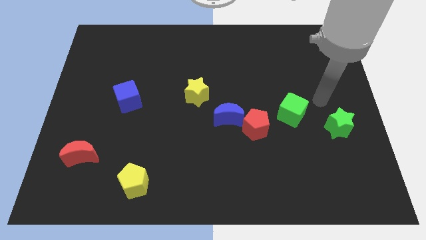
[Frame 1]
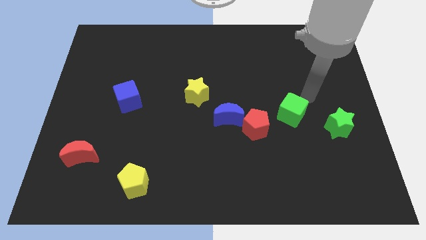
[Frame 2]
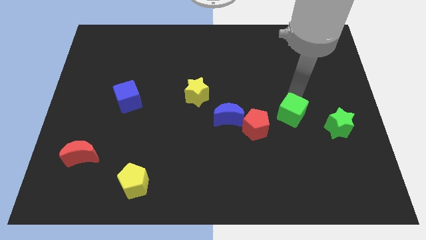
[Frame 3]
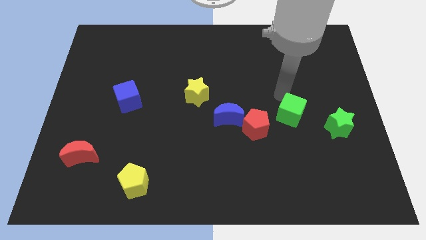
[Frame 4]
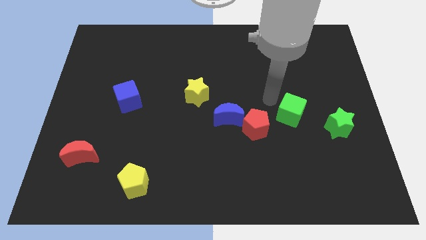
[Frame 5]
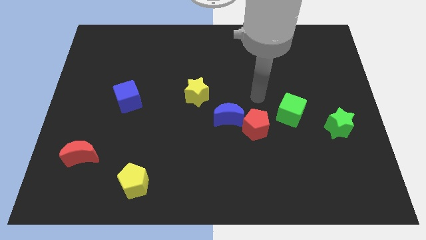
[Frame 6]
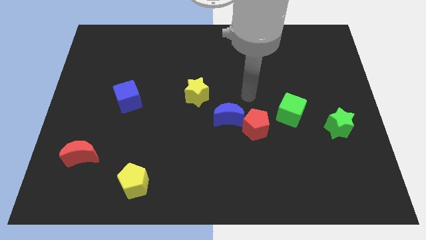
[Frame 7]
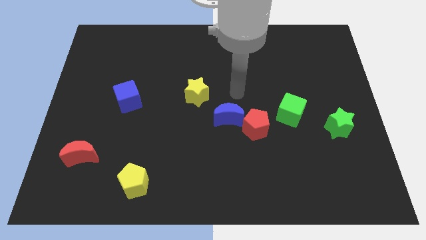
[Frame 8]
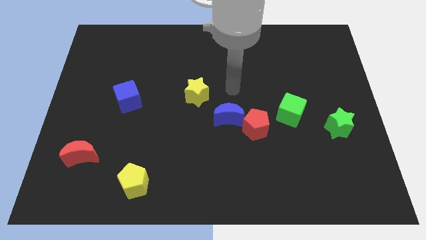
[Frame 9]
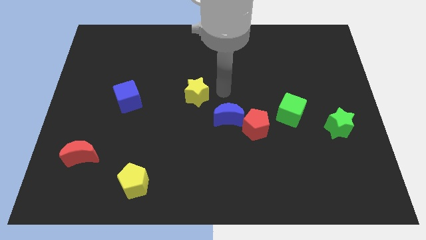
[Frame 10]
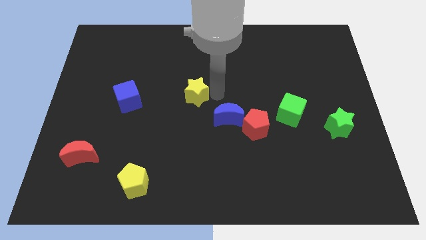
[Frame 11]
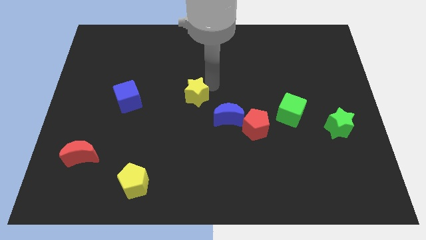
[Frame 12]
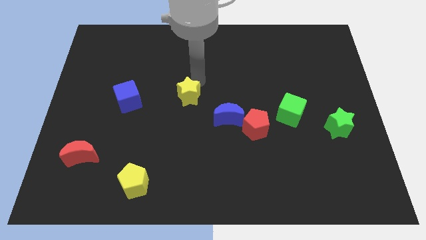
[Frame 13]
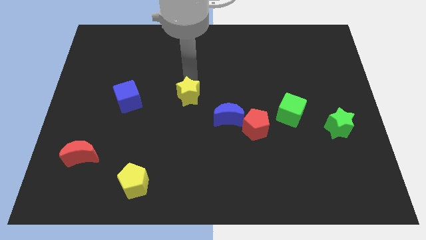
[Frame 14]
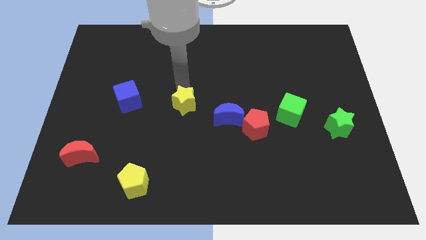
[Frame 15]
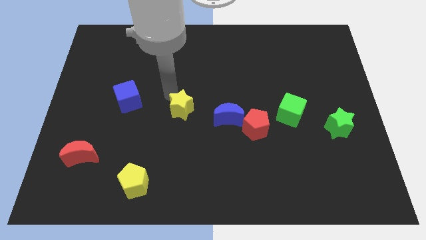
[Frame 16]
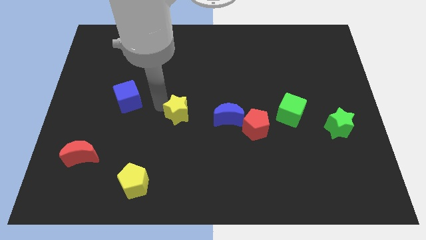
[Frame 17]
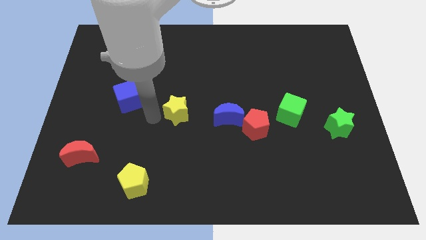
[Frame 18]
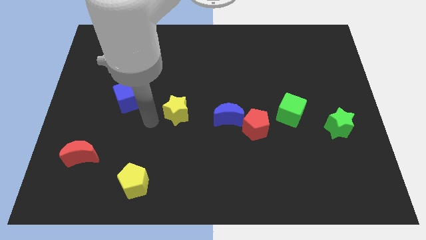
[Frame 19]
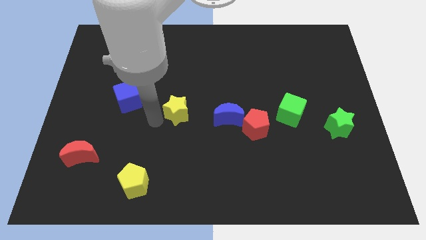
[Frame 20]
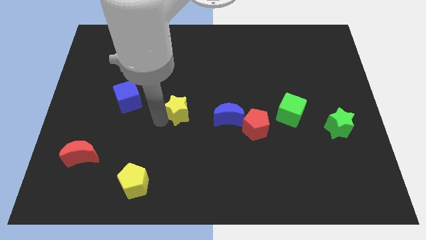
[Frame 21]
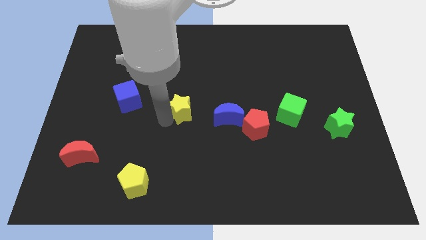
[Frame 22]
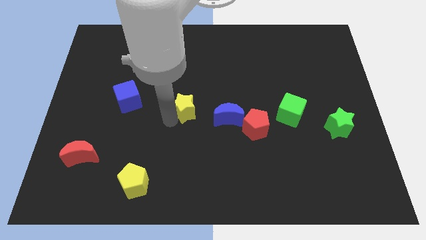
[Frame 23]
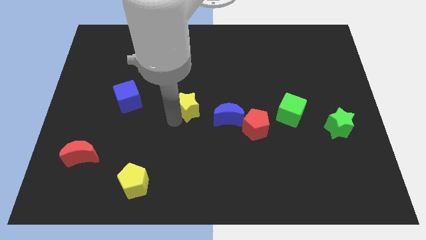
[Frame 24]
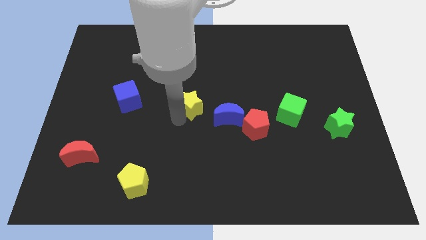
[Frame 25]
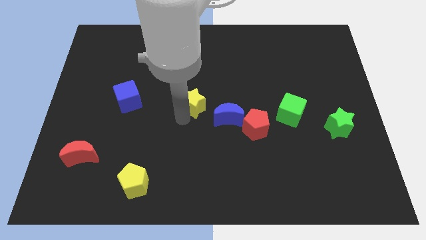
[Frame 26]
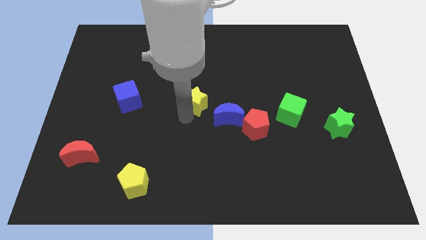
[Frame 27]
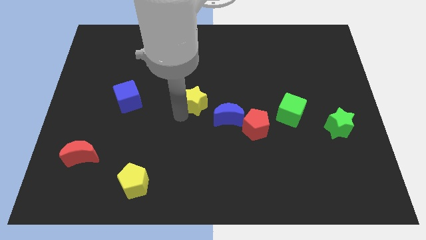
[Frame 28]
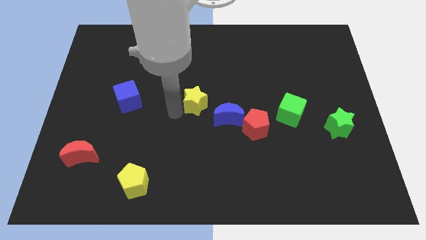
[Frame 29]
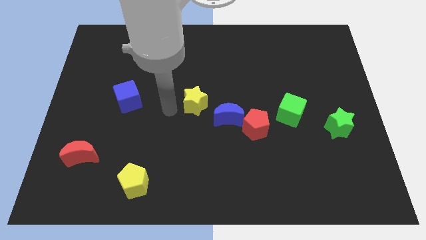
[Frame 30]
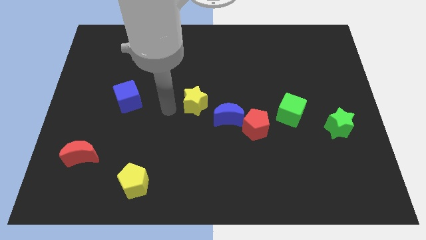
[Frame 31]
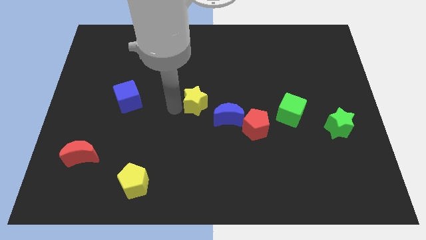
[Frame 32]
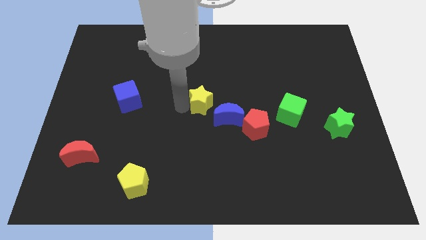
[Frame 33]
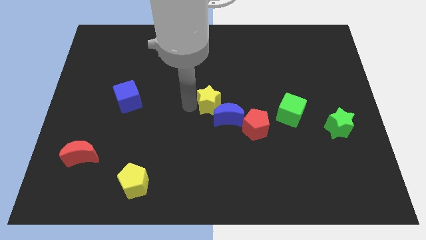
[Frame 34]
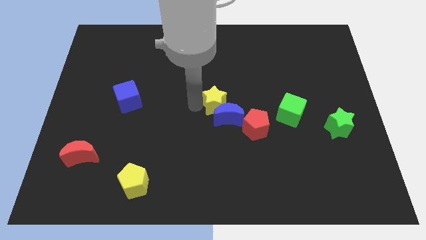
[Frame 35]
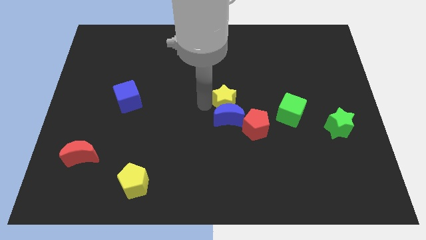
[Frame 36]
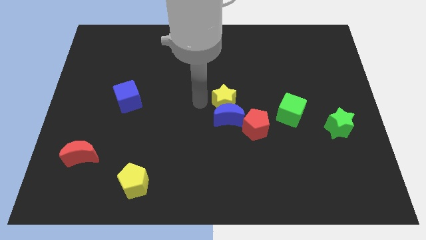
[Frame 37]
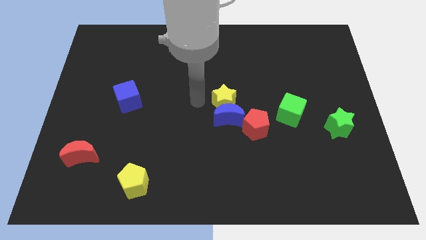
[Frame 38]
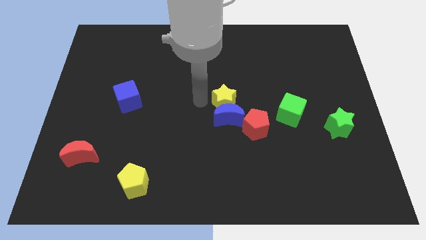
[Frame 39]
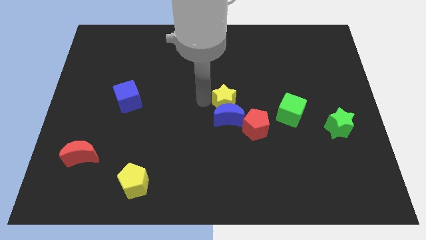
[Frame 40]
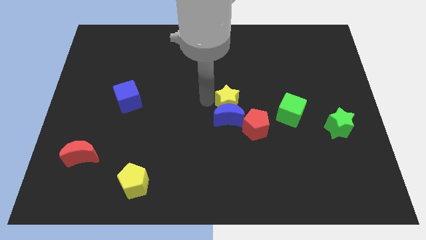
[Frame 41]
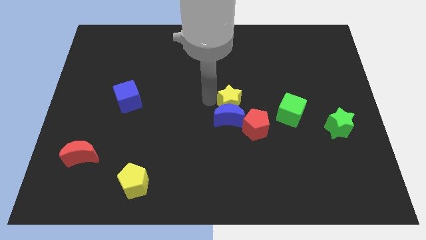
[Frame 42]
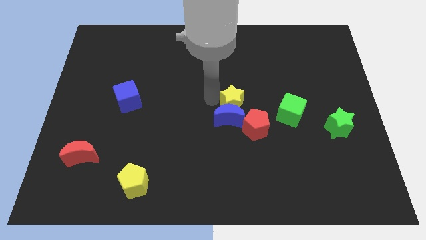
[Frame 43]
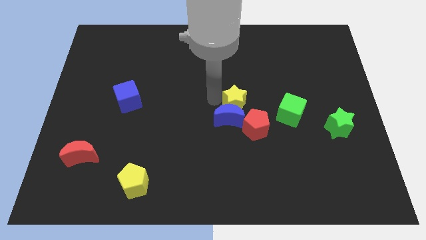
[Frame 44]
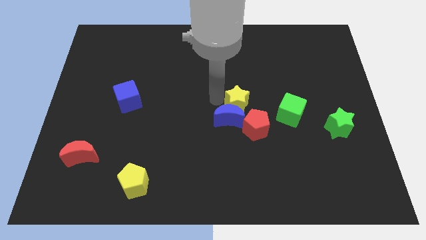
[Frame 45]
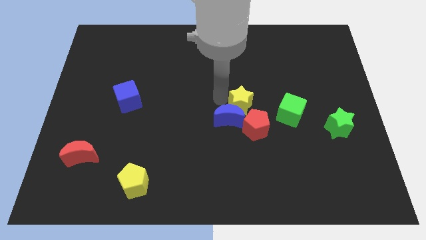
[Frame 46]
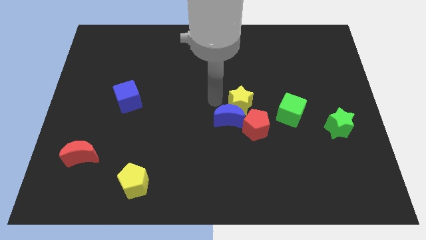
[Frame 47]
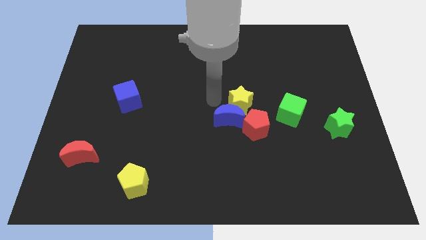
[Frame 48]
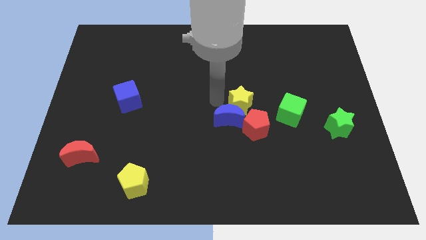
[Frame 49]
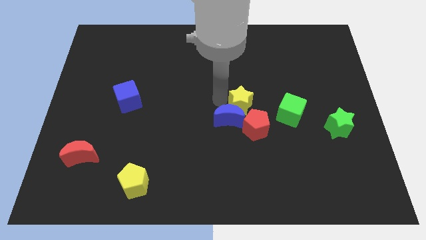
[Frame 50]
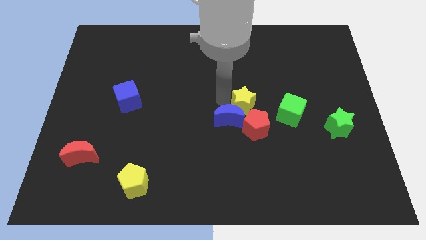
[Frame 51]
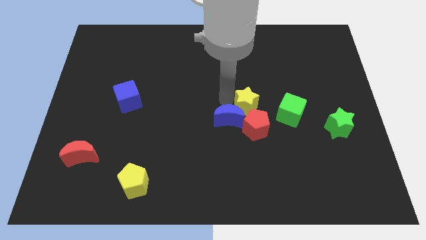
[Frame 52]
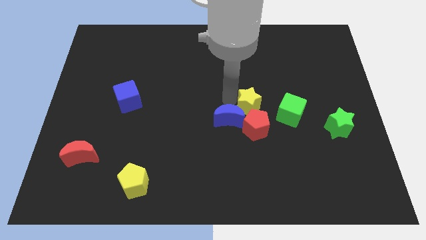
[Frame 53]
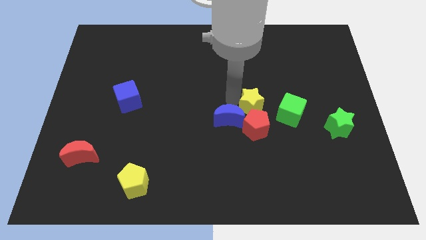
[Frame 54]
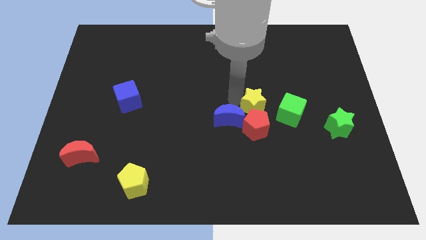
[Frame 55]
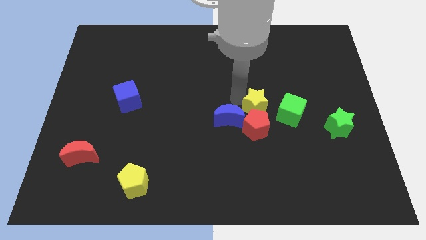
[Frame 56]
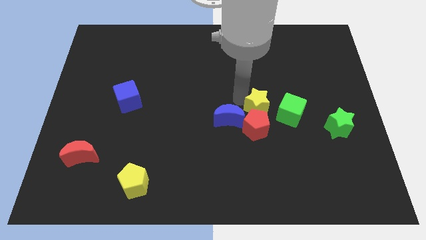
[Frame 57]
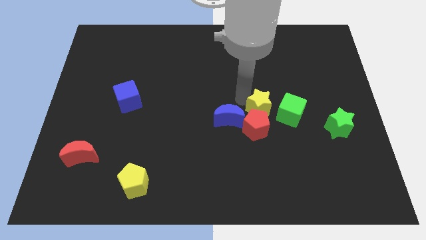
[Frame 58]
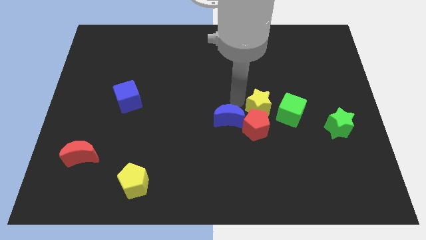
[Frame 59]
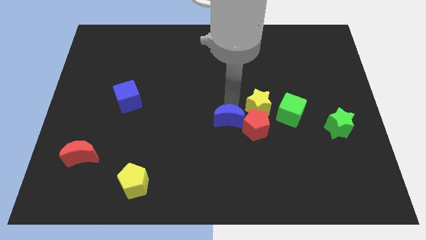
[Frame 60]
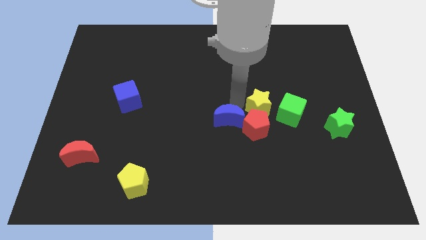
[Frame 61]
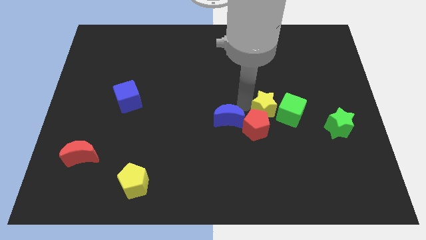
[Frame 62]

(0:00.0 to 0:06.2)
slide the yellow star to the green cube
